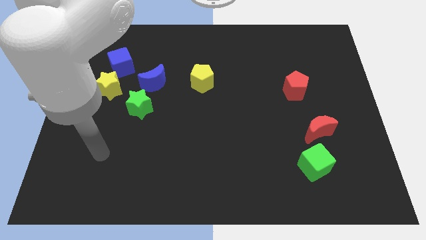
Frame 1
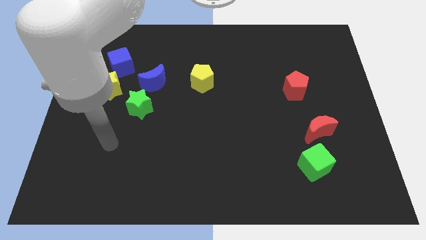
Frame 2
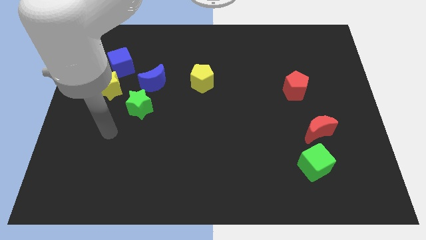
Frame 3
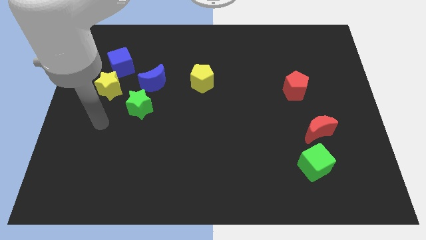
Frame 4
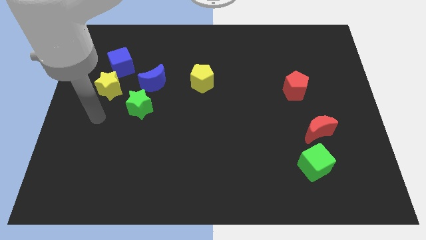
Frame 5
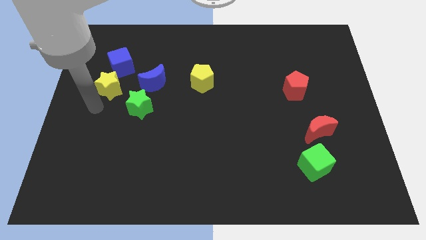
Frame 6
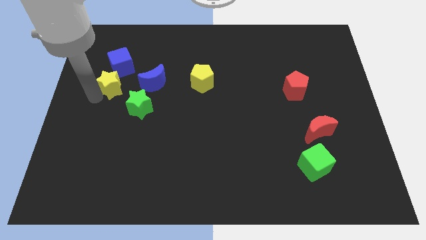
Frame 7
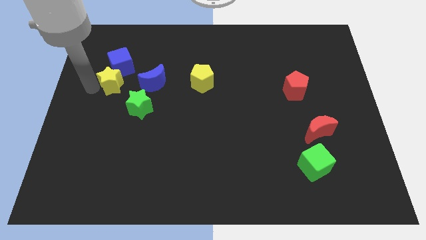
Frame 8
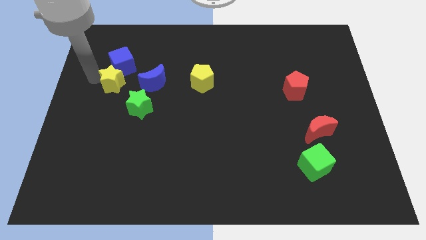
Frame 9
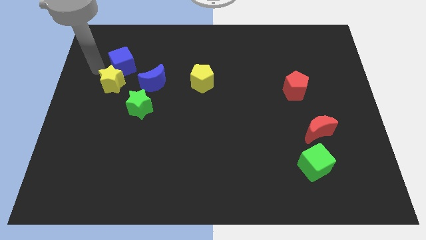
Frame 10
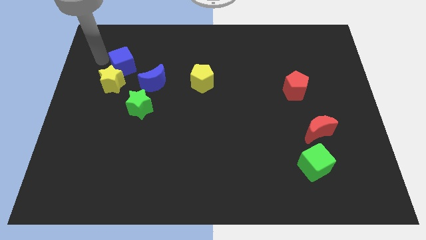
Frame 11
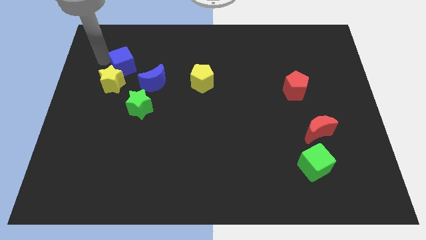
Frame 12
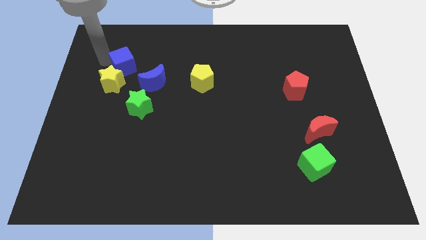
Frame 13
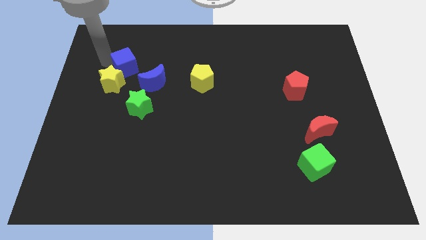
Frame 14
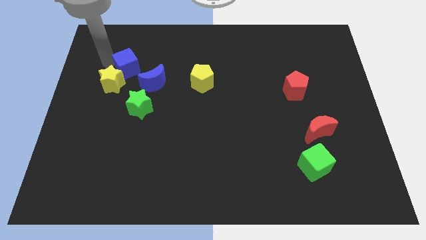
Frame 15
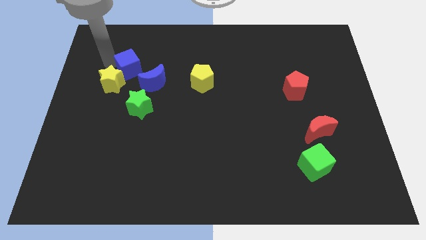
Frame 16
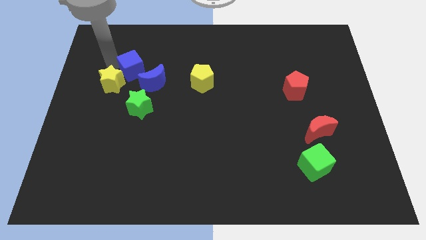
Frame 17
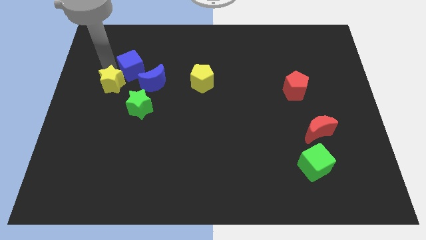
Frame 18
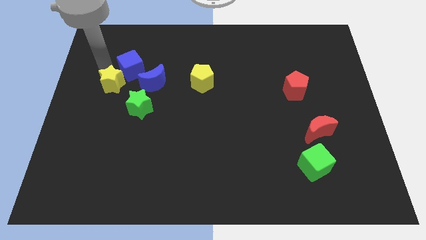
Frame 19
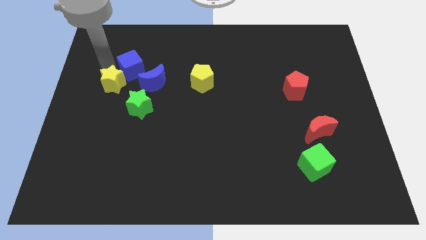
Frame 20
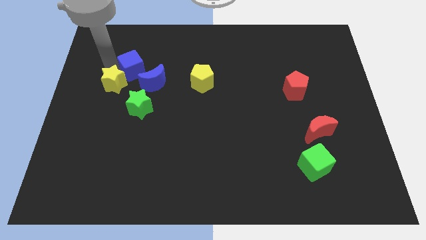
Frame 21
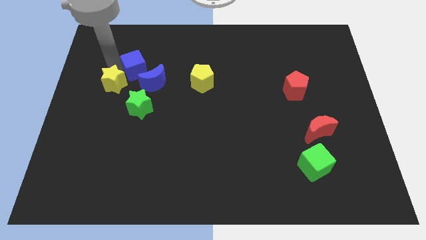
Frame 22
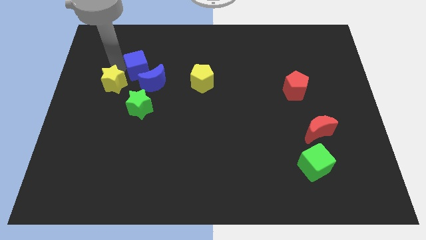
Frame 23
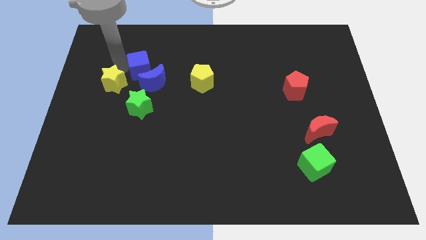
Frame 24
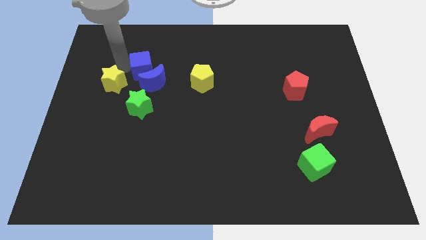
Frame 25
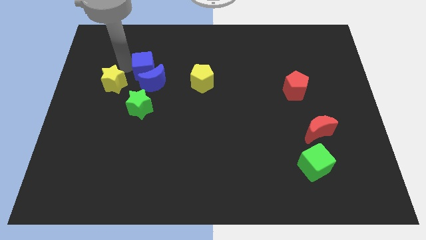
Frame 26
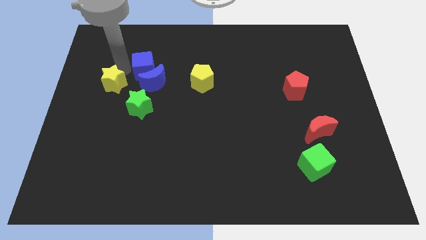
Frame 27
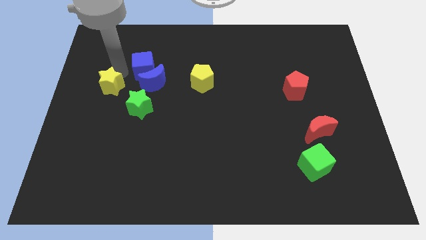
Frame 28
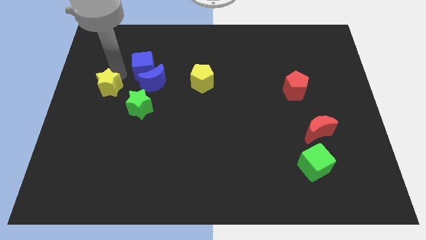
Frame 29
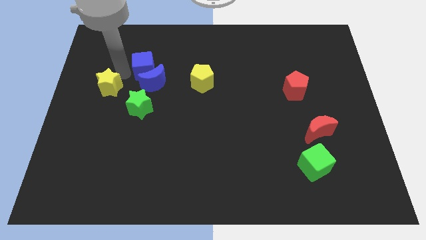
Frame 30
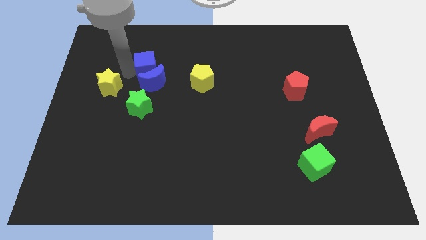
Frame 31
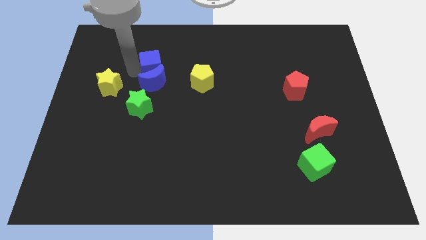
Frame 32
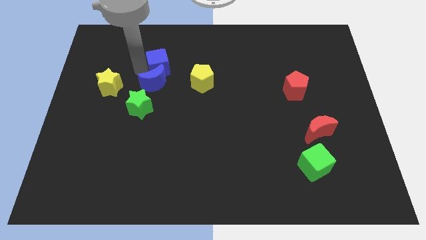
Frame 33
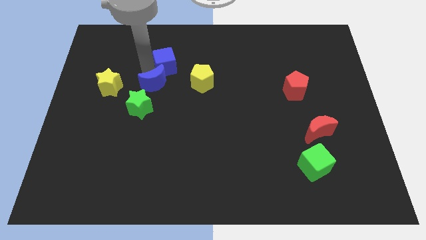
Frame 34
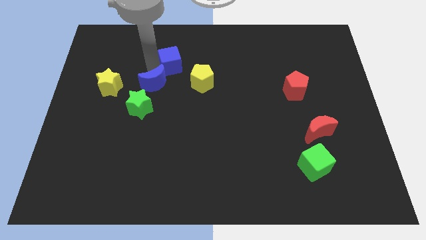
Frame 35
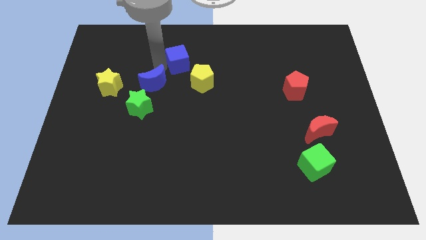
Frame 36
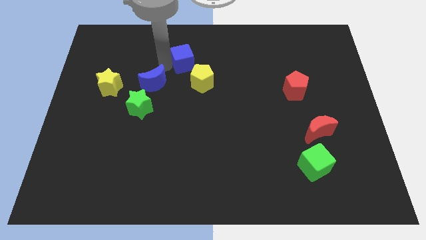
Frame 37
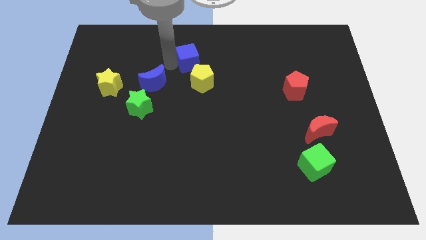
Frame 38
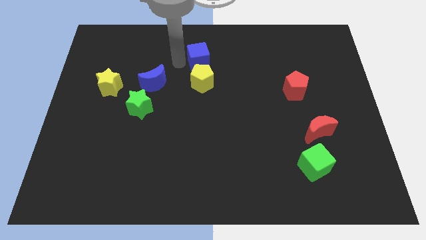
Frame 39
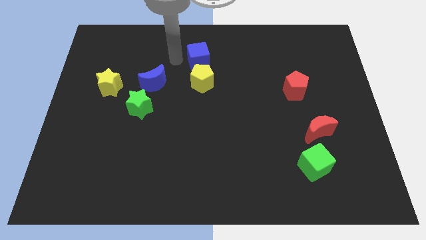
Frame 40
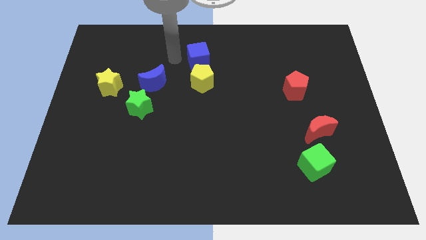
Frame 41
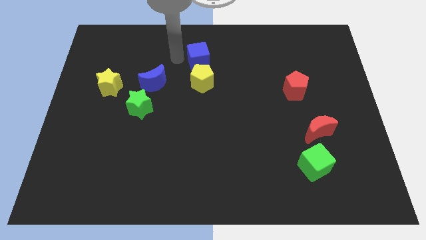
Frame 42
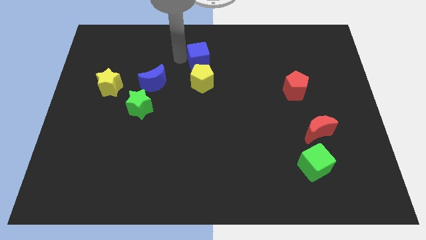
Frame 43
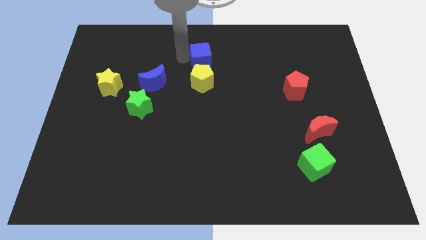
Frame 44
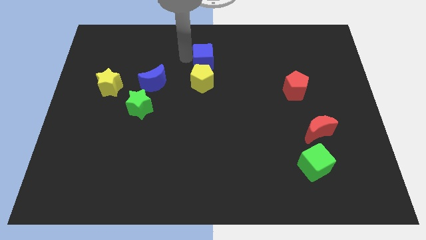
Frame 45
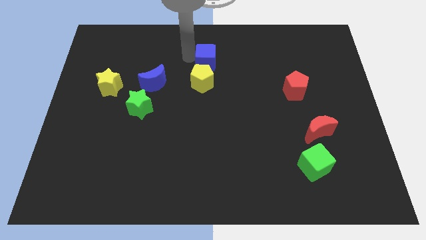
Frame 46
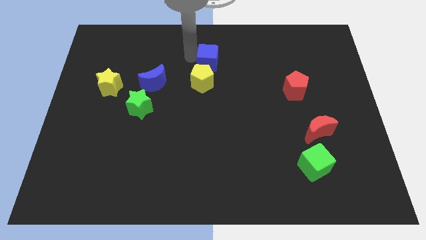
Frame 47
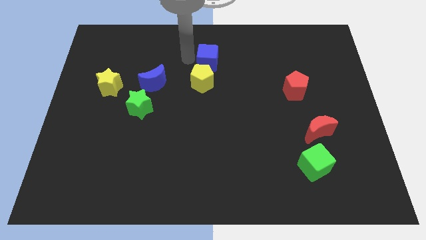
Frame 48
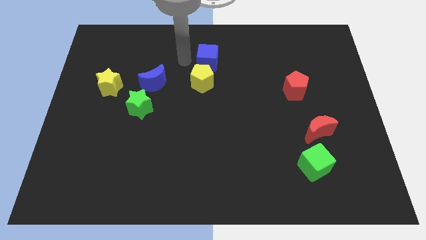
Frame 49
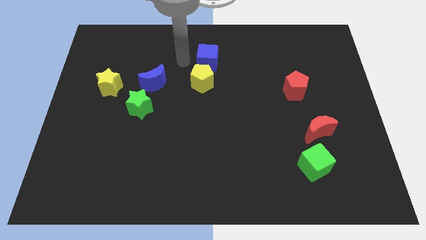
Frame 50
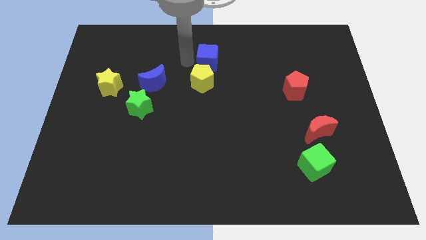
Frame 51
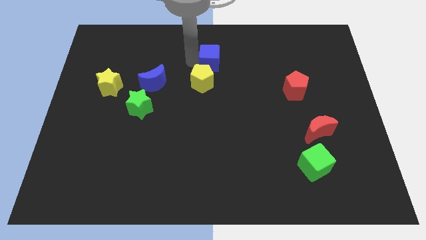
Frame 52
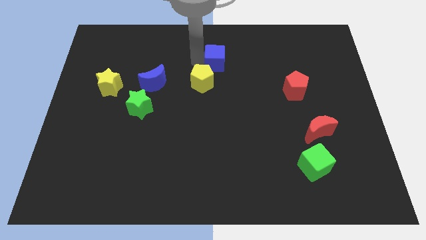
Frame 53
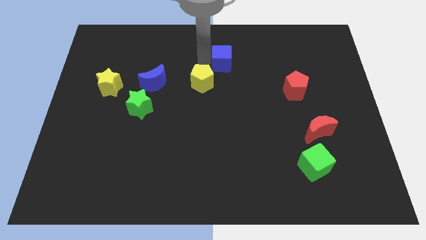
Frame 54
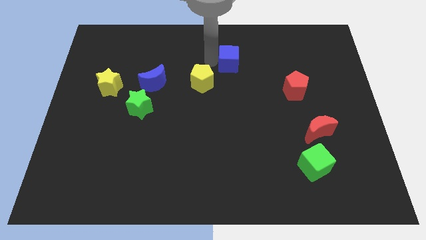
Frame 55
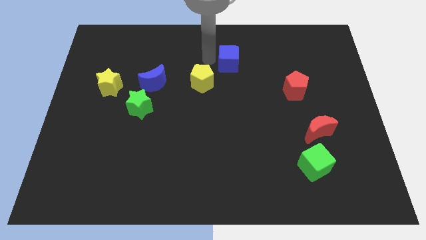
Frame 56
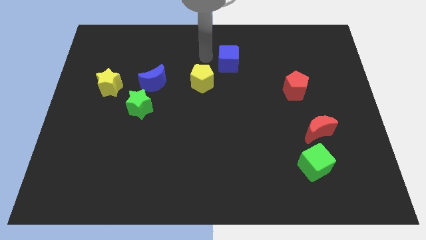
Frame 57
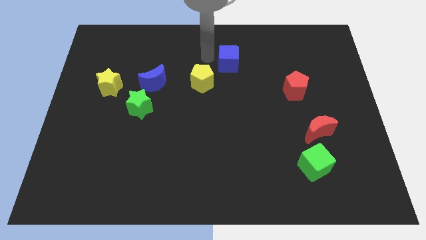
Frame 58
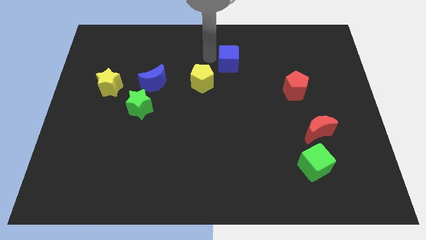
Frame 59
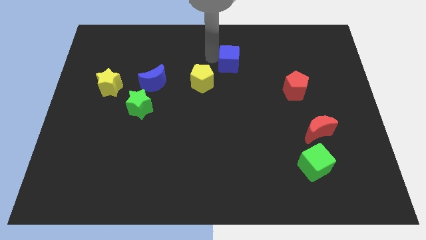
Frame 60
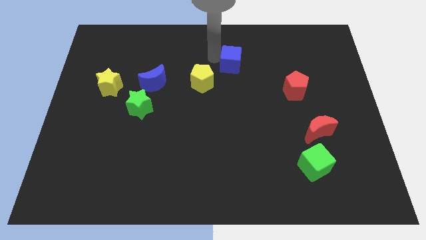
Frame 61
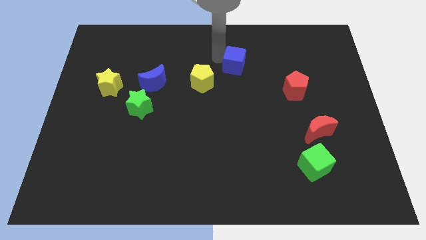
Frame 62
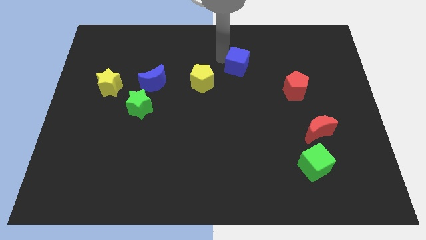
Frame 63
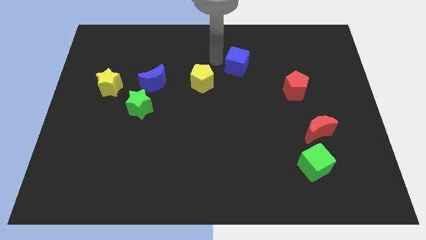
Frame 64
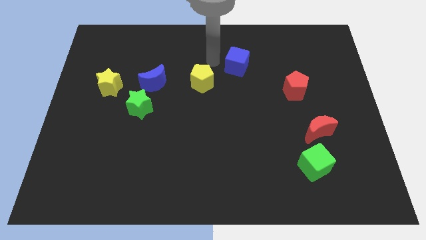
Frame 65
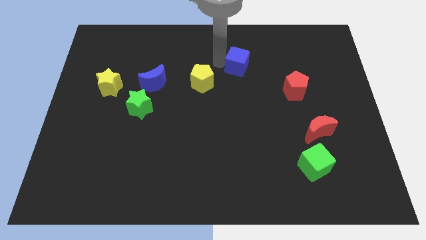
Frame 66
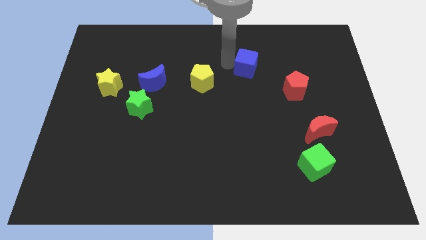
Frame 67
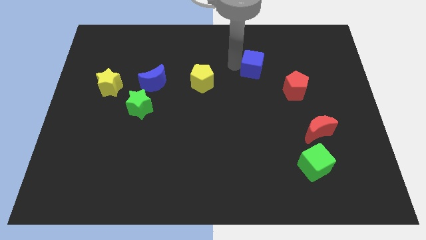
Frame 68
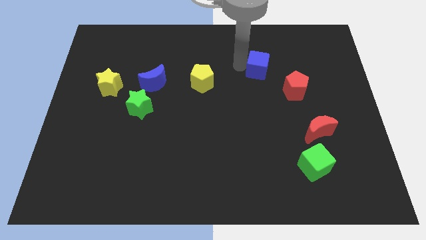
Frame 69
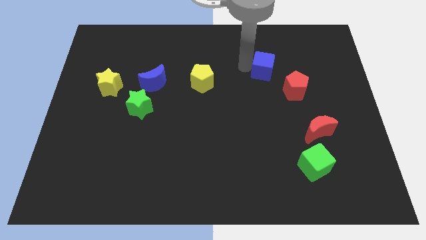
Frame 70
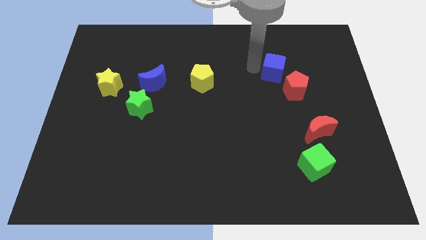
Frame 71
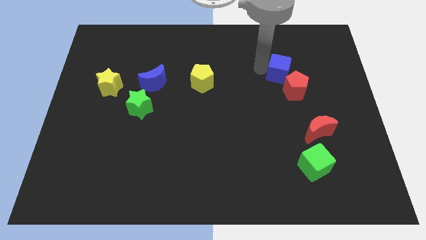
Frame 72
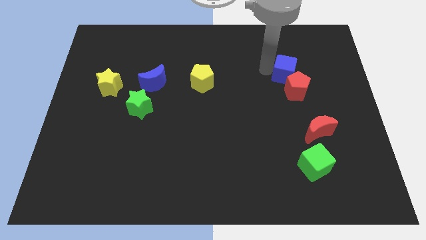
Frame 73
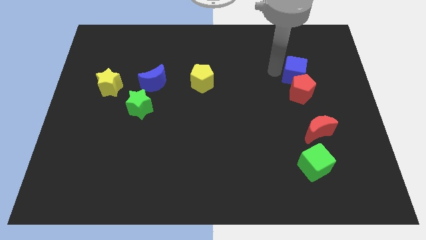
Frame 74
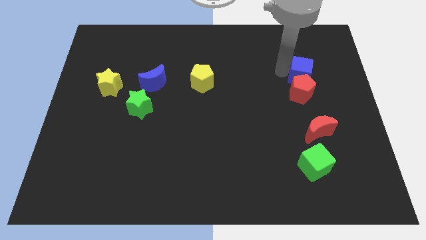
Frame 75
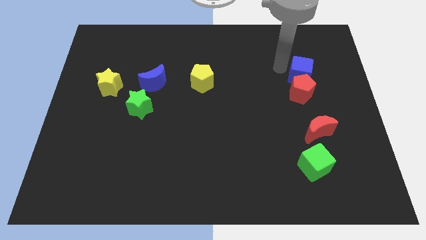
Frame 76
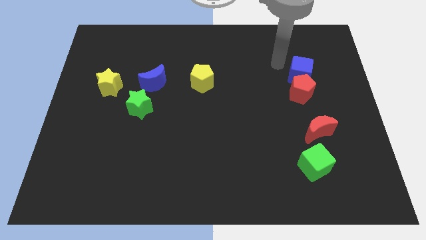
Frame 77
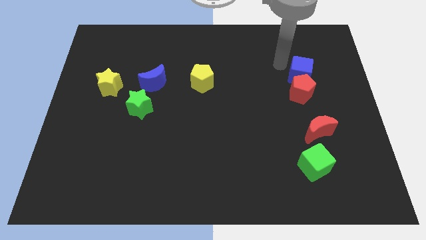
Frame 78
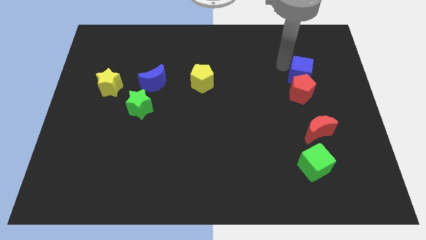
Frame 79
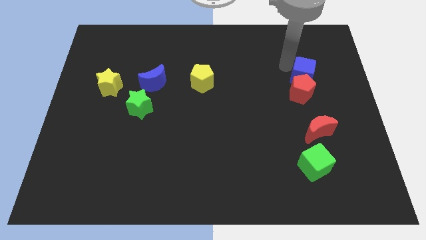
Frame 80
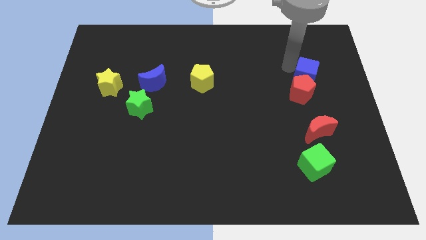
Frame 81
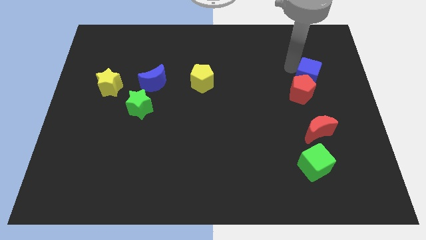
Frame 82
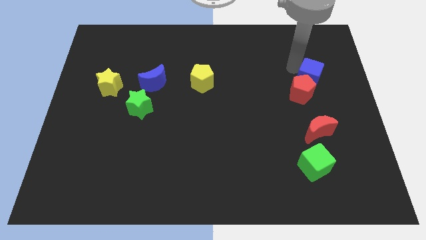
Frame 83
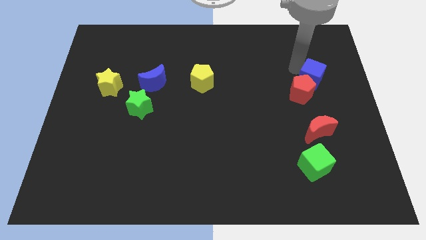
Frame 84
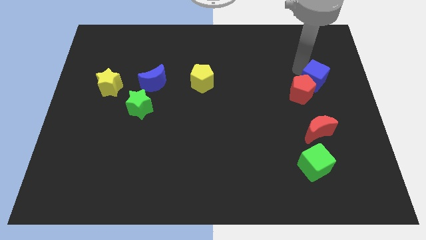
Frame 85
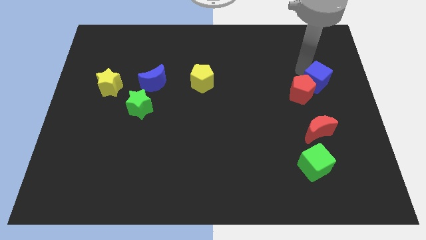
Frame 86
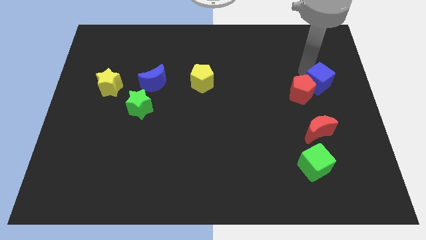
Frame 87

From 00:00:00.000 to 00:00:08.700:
push the blue cube to the center right
